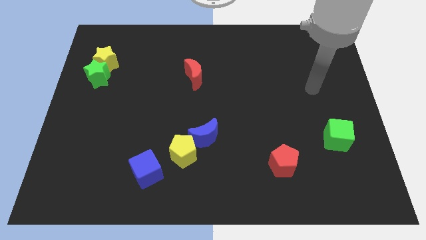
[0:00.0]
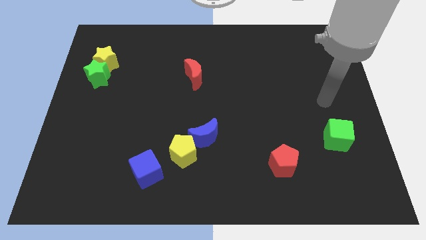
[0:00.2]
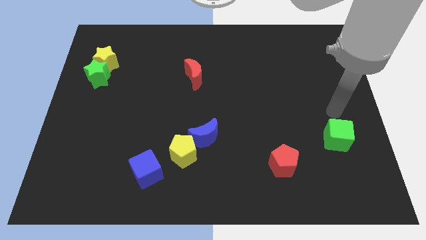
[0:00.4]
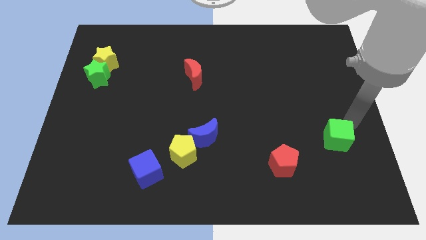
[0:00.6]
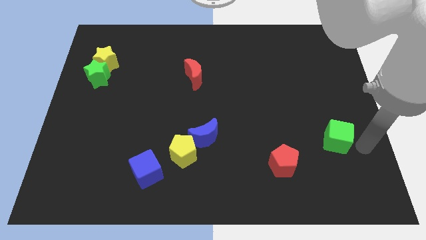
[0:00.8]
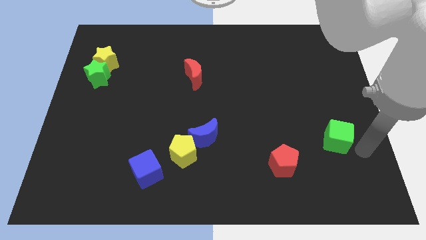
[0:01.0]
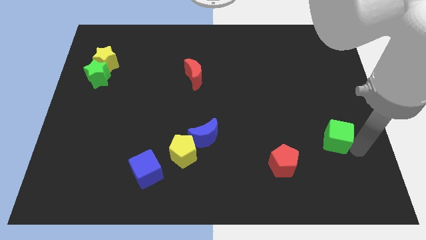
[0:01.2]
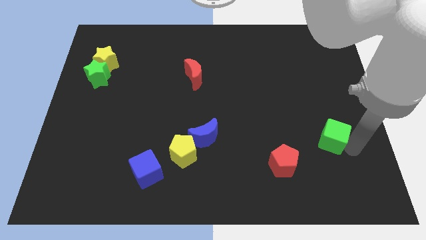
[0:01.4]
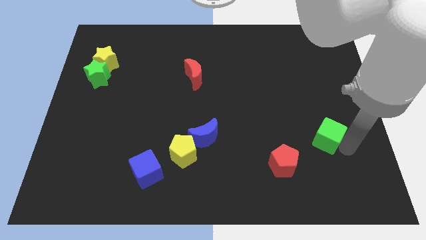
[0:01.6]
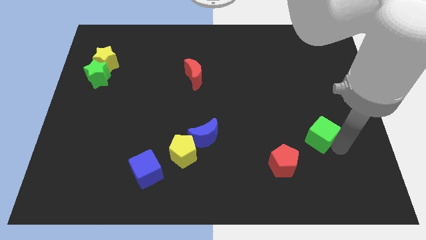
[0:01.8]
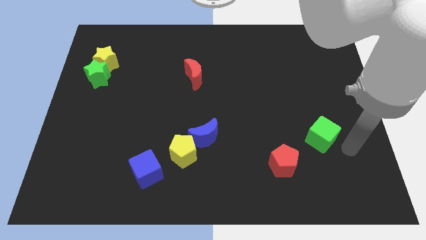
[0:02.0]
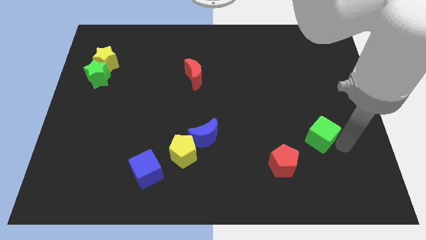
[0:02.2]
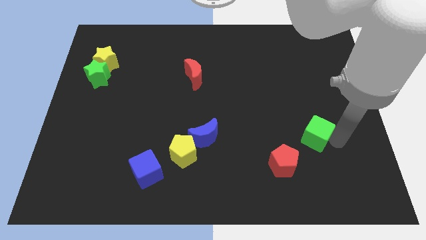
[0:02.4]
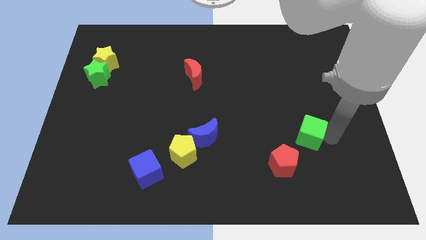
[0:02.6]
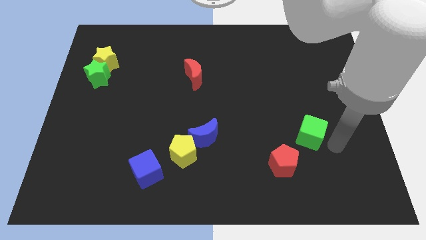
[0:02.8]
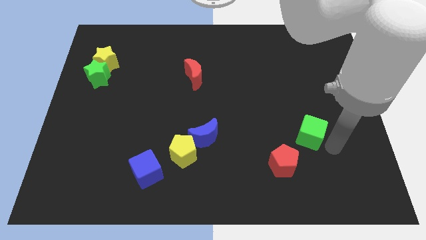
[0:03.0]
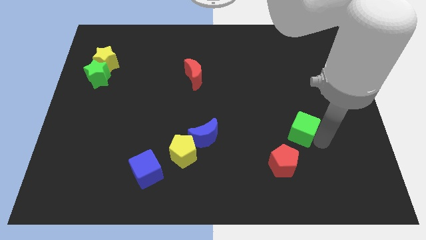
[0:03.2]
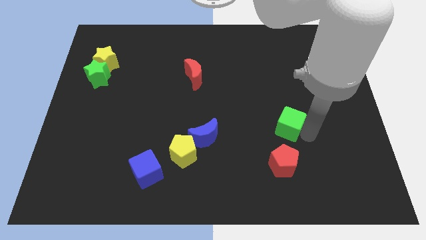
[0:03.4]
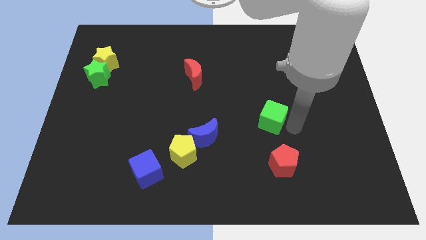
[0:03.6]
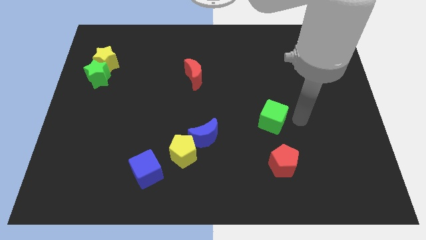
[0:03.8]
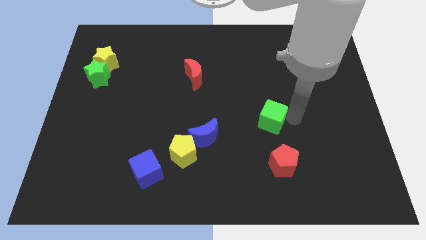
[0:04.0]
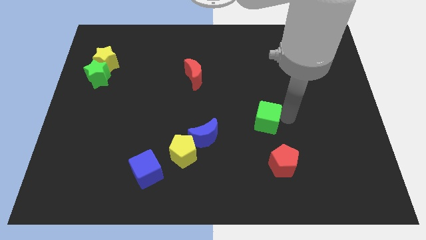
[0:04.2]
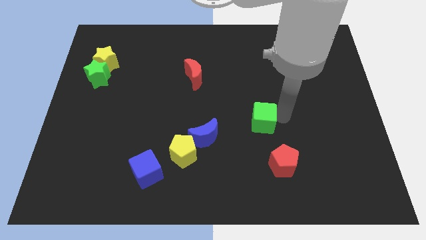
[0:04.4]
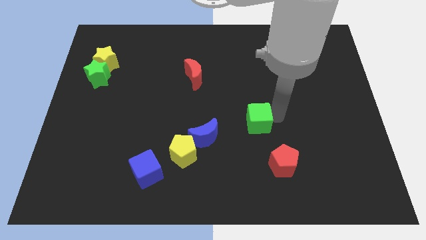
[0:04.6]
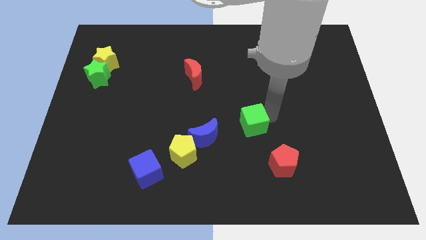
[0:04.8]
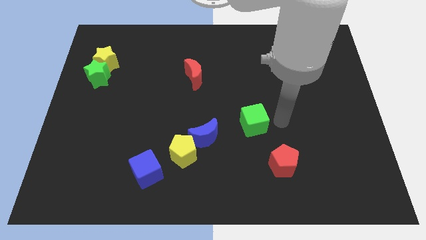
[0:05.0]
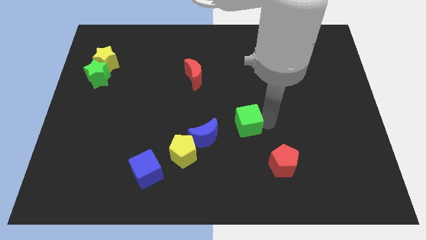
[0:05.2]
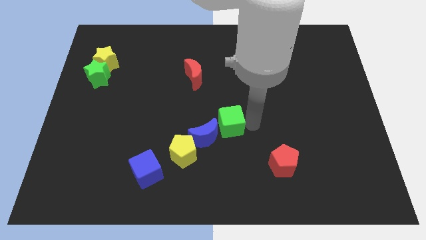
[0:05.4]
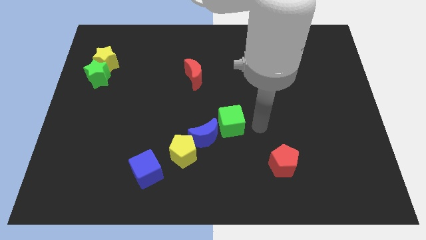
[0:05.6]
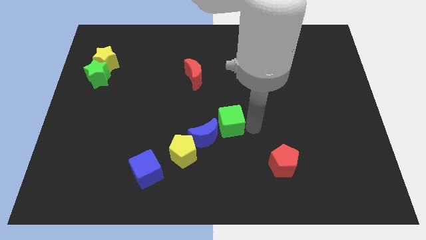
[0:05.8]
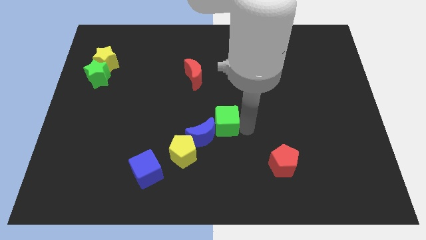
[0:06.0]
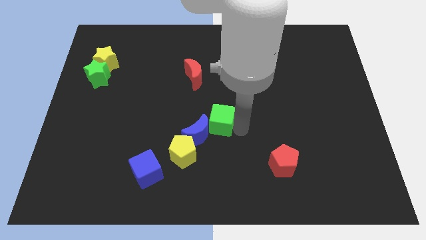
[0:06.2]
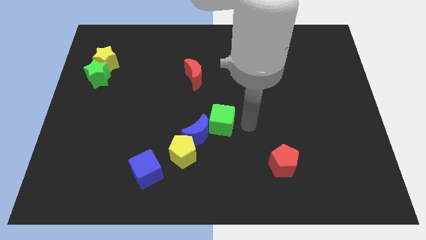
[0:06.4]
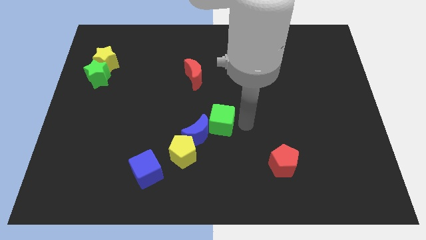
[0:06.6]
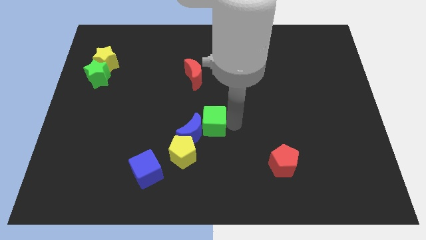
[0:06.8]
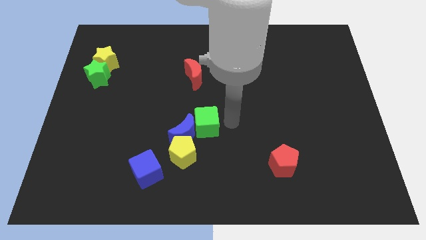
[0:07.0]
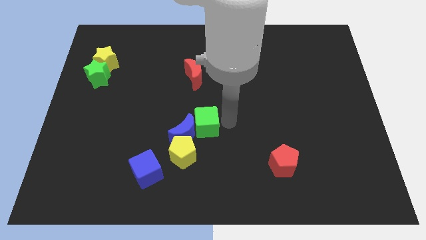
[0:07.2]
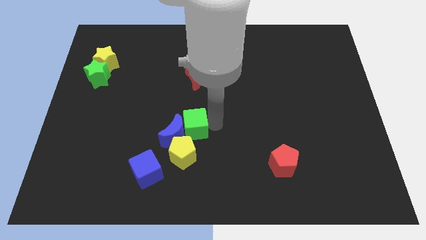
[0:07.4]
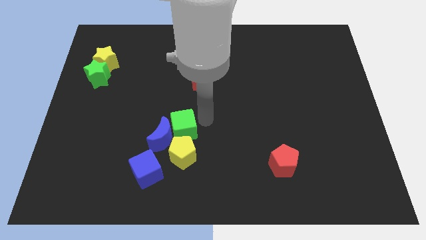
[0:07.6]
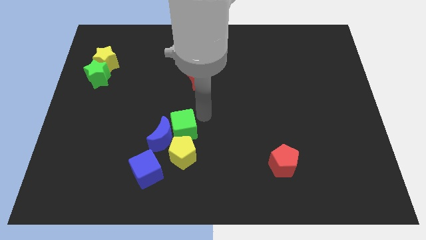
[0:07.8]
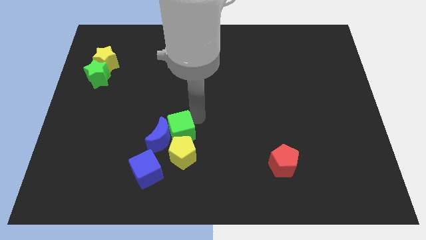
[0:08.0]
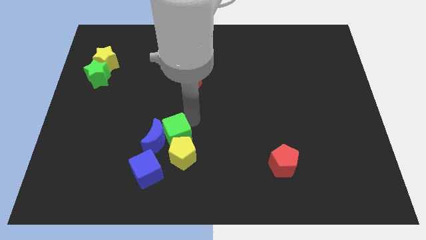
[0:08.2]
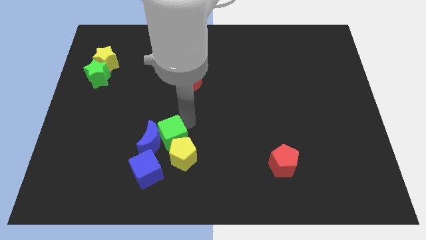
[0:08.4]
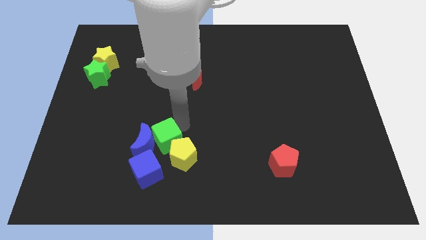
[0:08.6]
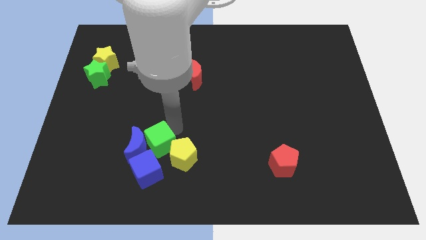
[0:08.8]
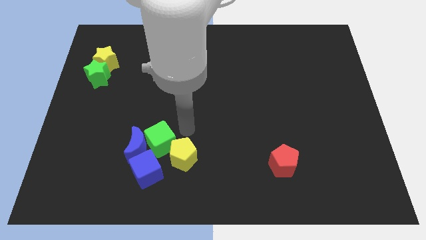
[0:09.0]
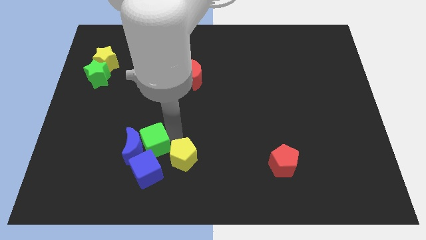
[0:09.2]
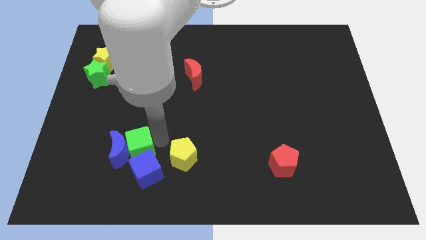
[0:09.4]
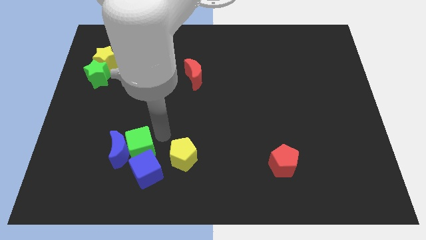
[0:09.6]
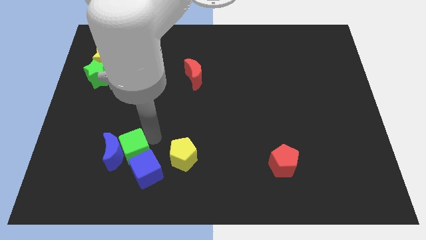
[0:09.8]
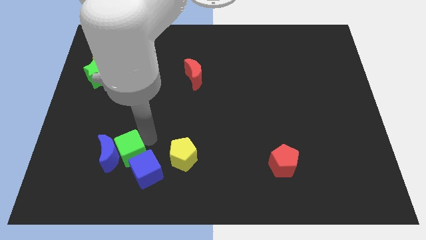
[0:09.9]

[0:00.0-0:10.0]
push the green cube just left of the blue cube

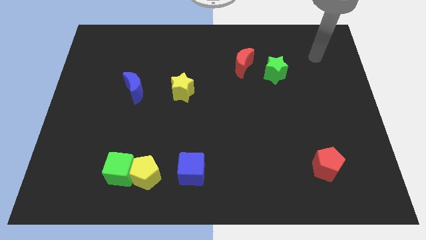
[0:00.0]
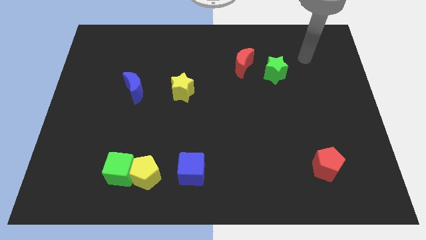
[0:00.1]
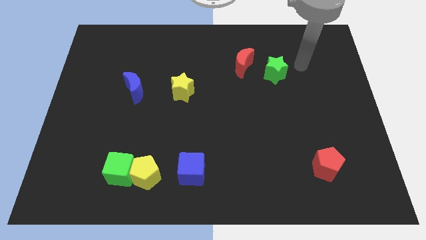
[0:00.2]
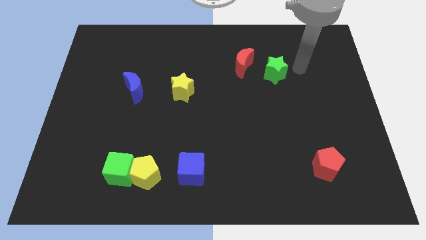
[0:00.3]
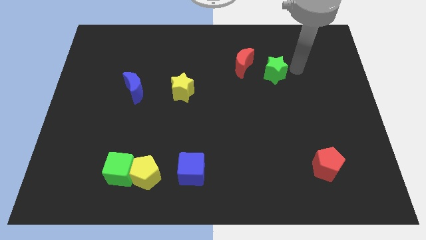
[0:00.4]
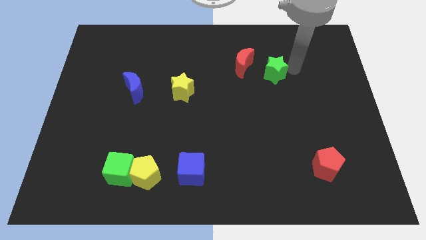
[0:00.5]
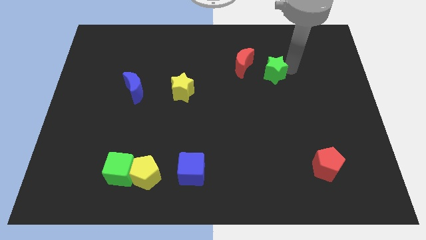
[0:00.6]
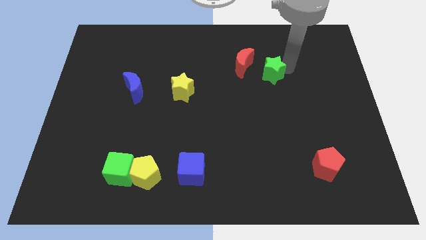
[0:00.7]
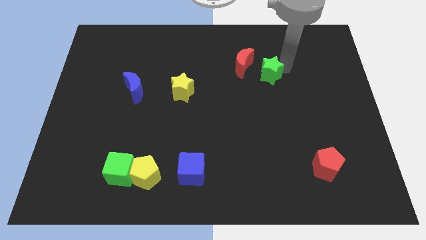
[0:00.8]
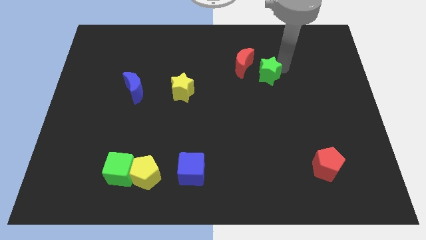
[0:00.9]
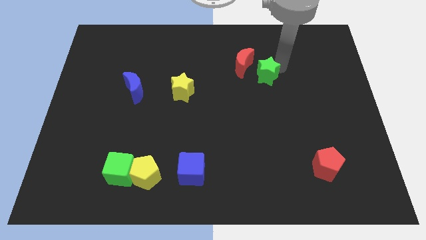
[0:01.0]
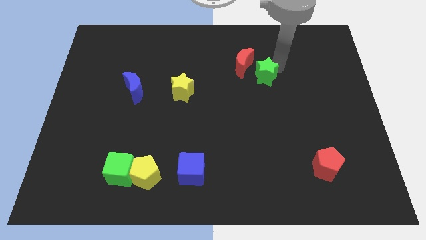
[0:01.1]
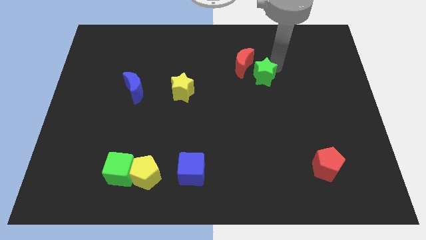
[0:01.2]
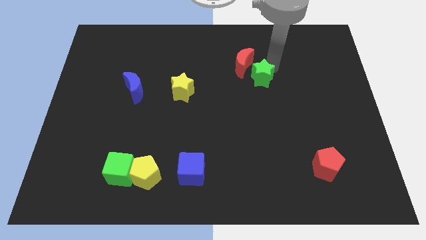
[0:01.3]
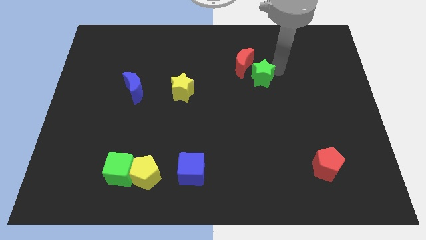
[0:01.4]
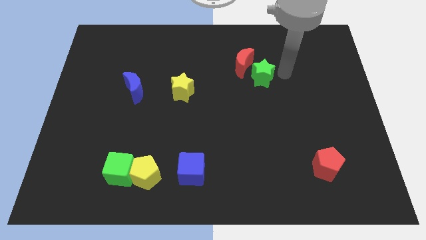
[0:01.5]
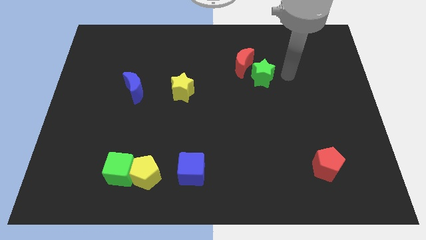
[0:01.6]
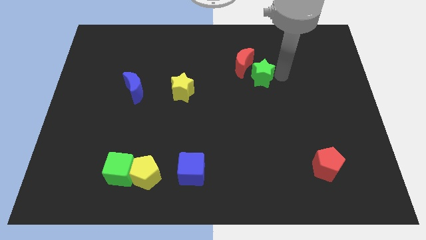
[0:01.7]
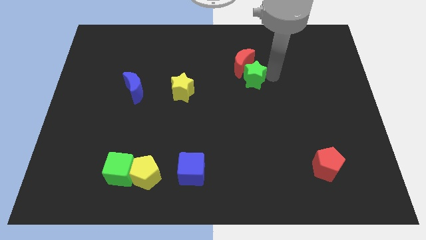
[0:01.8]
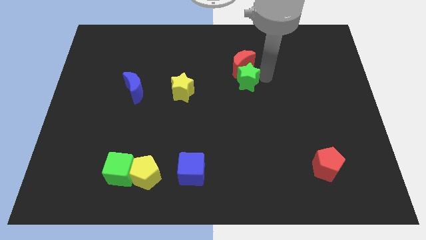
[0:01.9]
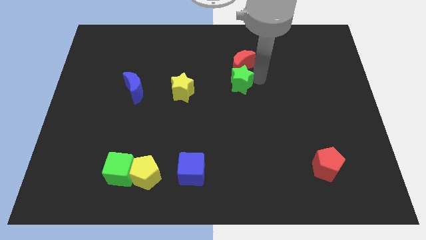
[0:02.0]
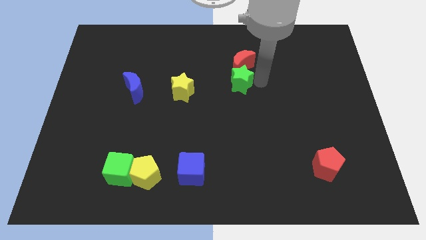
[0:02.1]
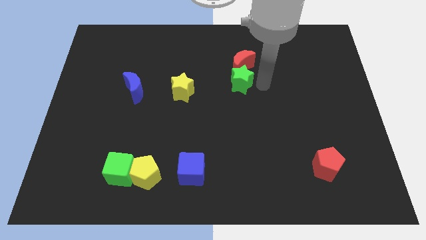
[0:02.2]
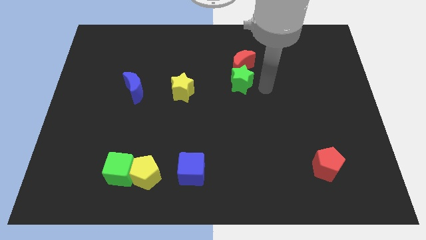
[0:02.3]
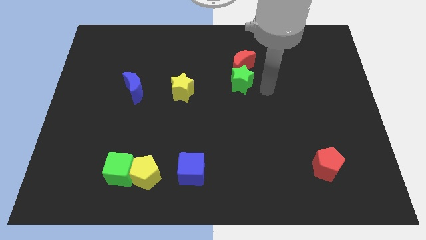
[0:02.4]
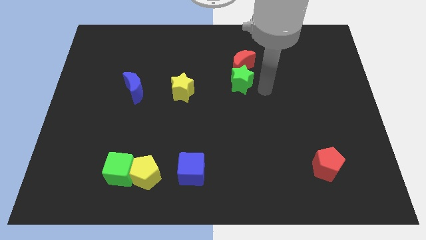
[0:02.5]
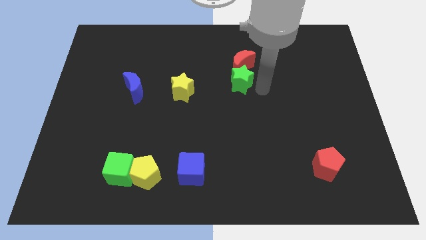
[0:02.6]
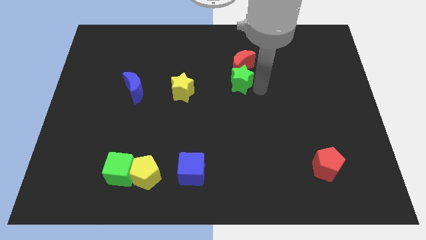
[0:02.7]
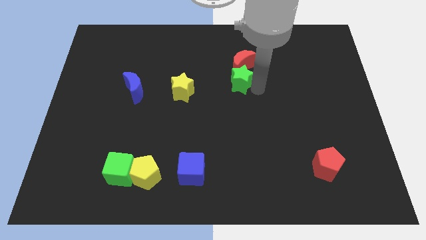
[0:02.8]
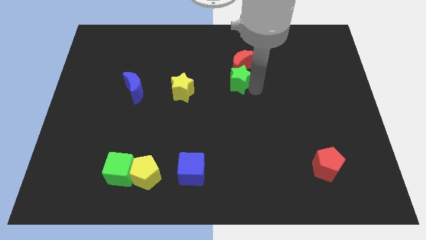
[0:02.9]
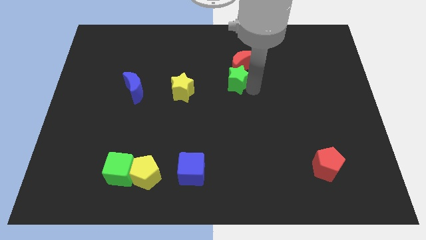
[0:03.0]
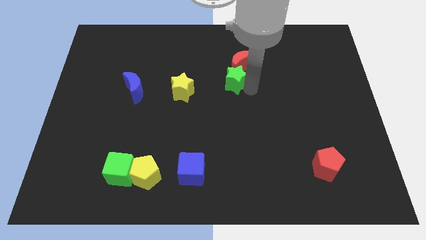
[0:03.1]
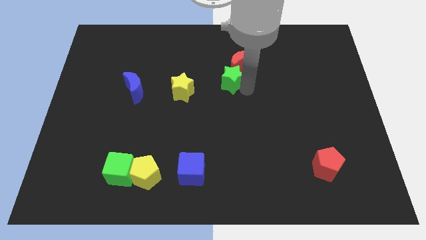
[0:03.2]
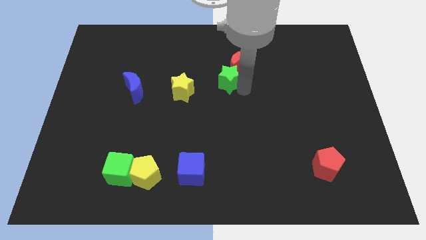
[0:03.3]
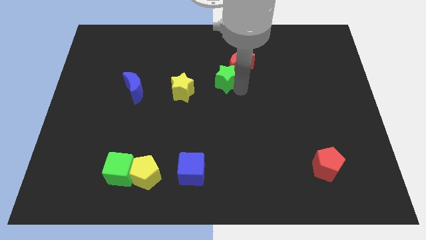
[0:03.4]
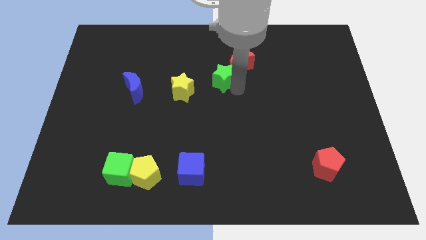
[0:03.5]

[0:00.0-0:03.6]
move the green star diagonally up and to the right of the yellow star
